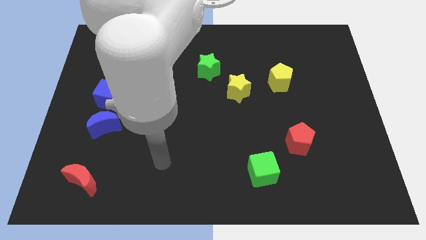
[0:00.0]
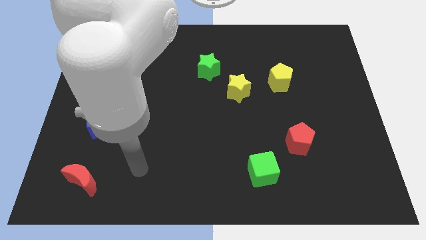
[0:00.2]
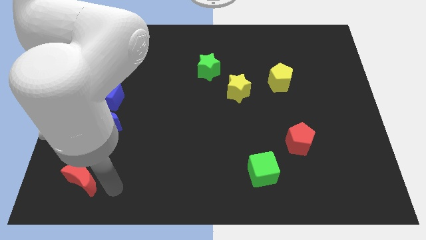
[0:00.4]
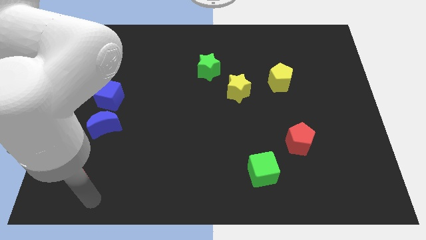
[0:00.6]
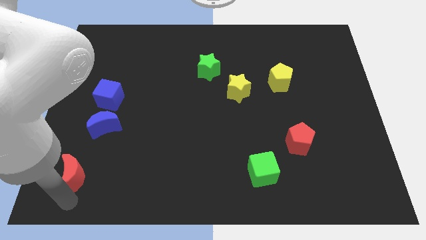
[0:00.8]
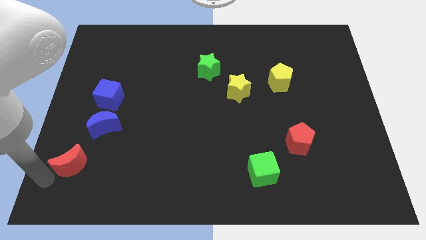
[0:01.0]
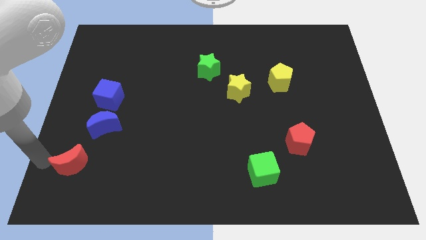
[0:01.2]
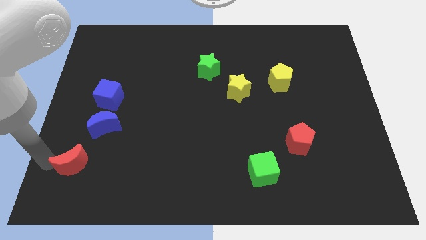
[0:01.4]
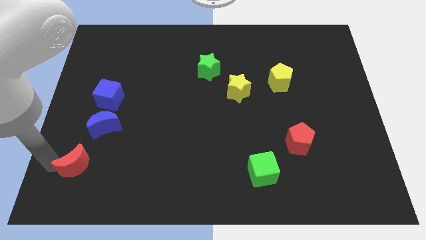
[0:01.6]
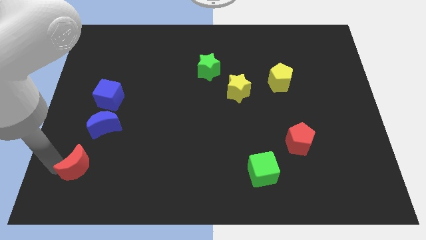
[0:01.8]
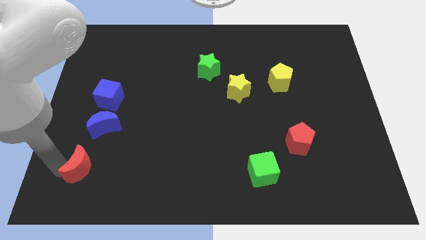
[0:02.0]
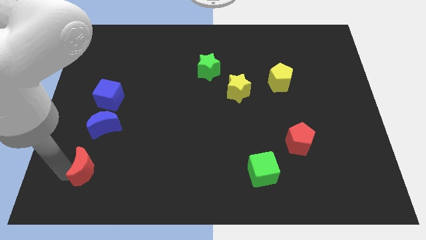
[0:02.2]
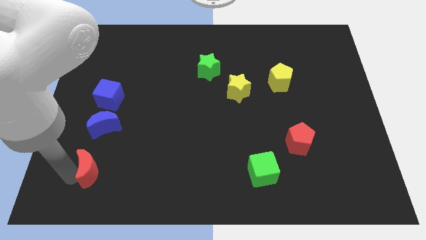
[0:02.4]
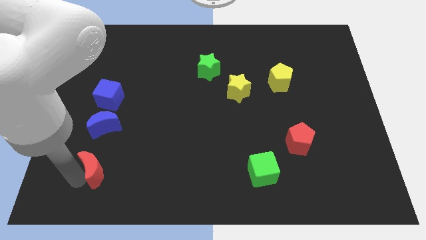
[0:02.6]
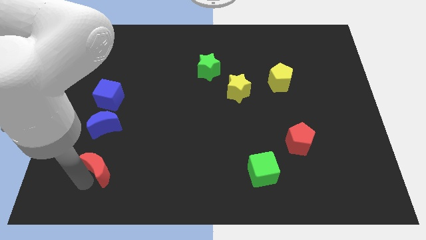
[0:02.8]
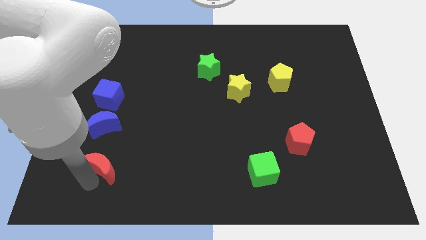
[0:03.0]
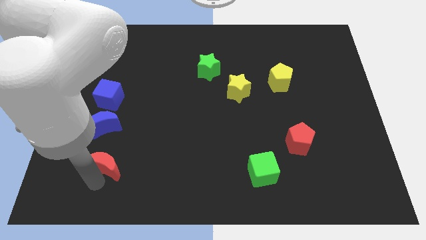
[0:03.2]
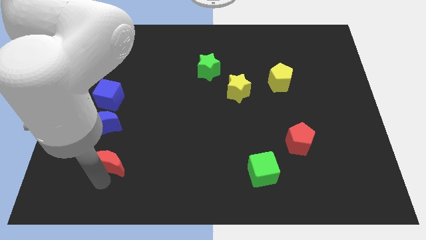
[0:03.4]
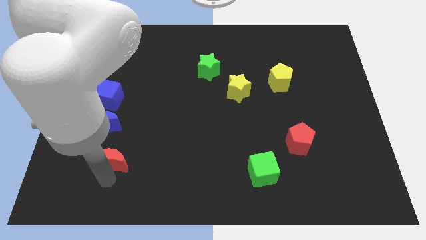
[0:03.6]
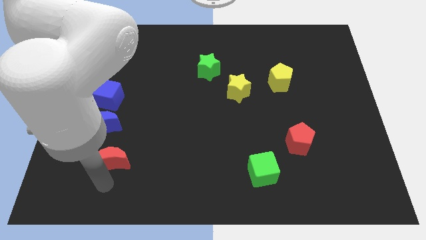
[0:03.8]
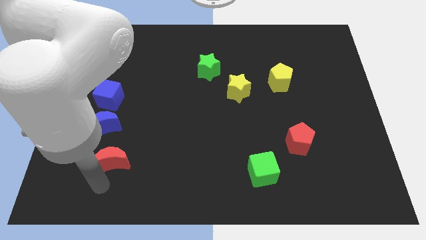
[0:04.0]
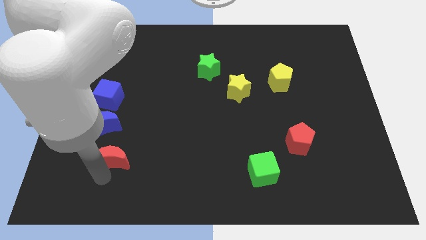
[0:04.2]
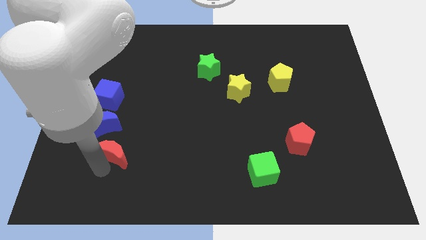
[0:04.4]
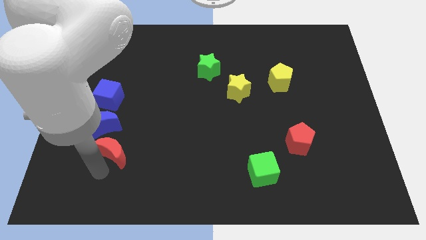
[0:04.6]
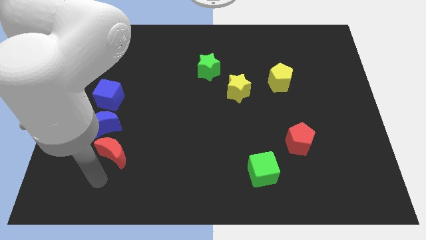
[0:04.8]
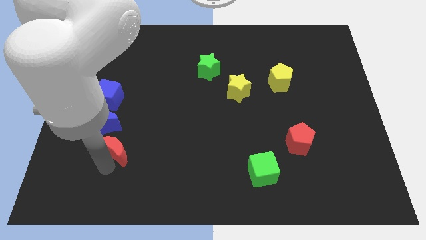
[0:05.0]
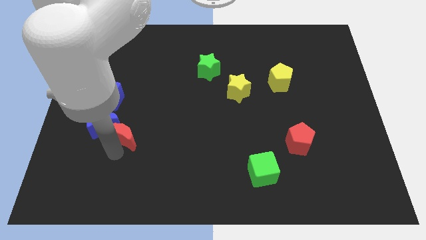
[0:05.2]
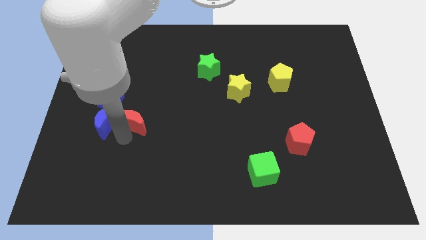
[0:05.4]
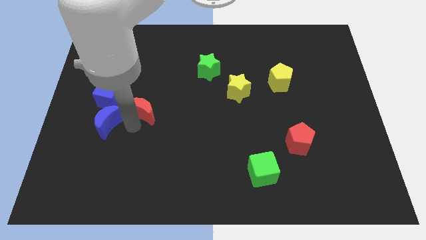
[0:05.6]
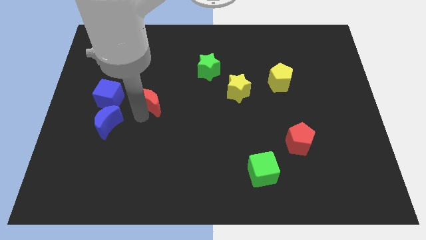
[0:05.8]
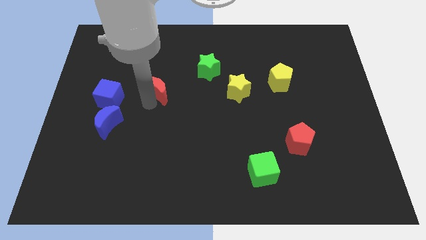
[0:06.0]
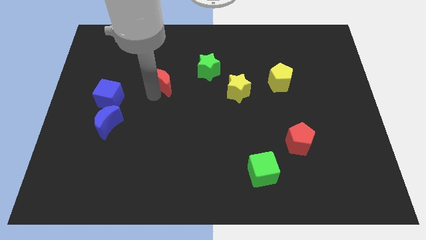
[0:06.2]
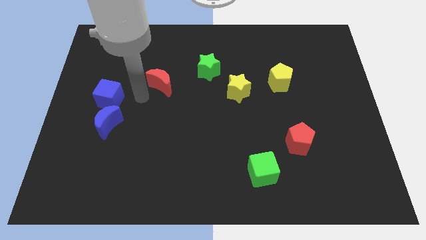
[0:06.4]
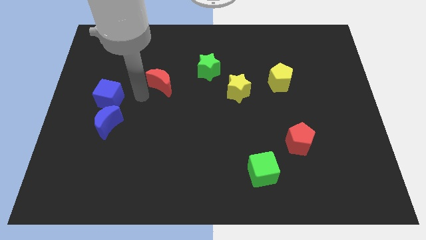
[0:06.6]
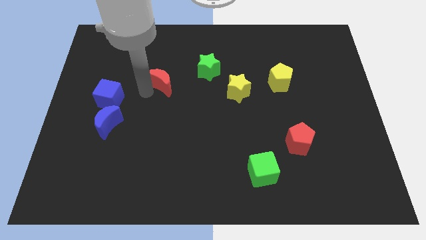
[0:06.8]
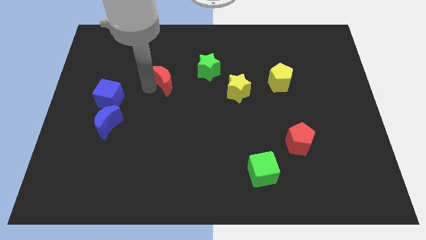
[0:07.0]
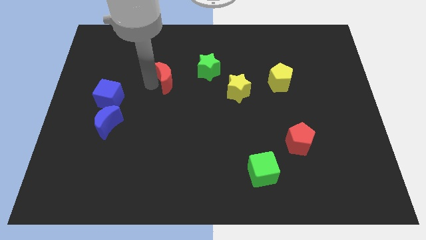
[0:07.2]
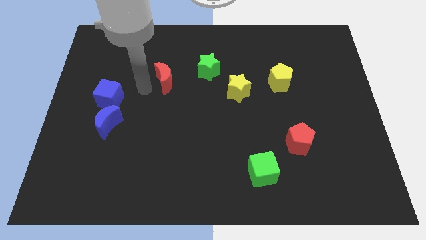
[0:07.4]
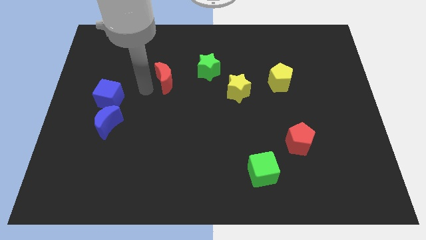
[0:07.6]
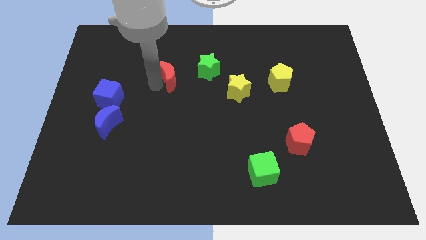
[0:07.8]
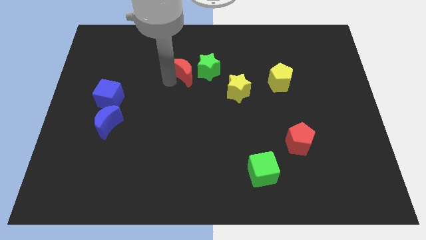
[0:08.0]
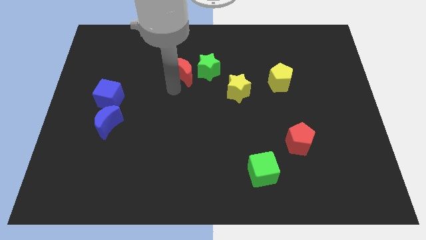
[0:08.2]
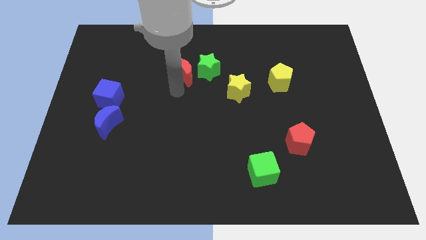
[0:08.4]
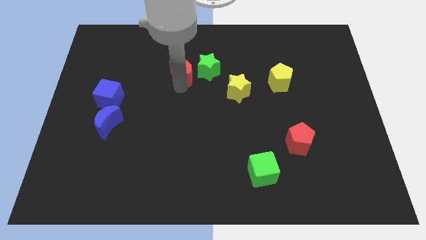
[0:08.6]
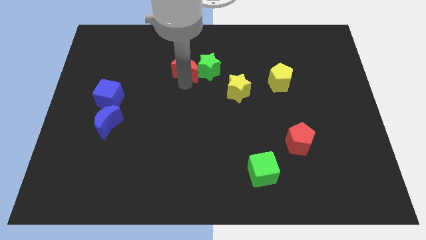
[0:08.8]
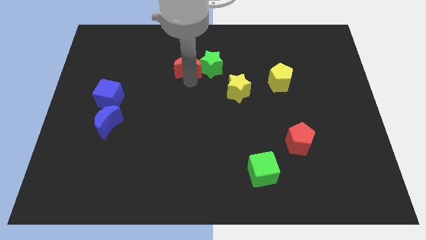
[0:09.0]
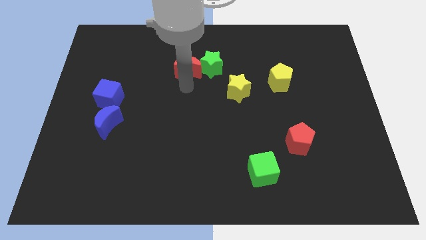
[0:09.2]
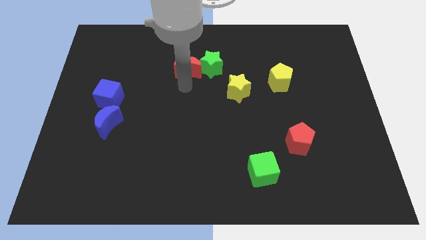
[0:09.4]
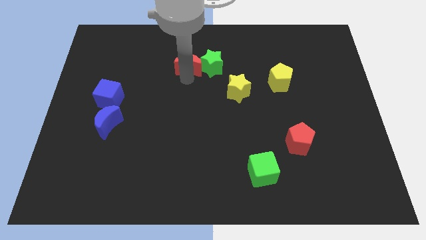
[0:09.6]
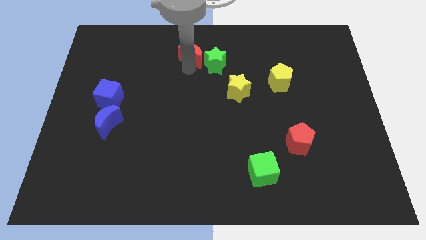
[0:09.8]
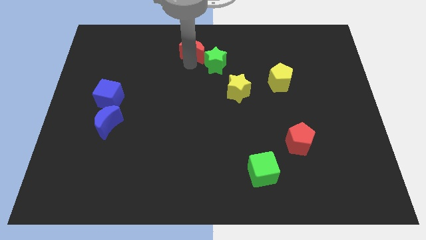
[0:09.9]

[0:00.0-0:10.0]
slide the red moon to the towards your base

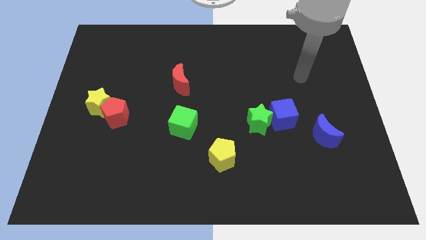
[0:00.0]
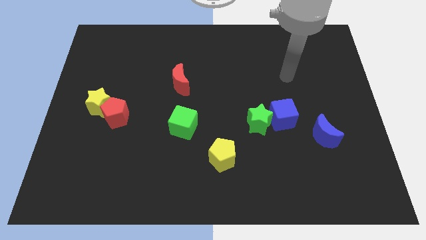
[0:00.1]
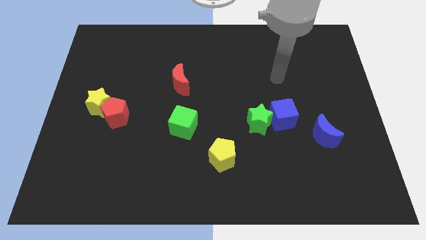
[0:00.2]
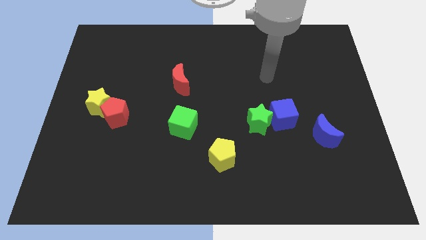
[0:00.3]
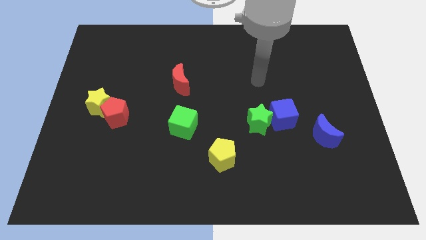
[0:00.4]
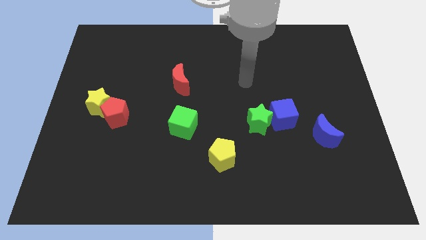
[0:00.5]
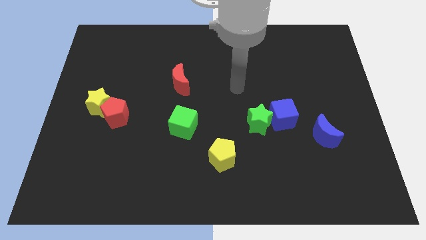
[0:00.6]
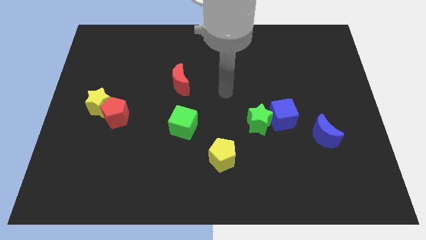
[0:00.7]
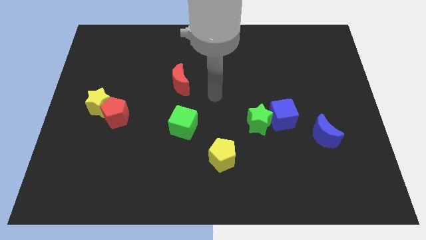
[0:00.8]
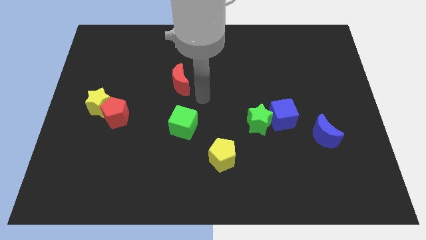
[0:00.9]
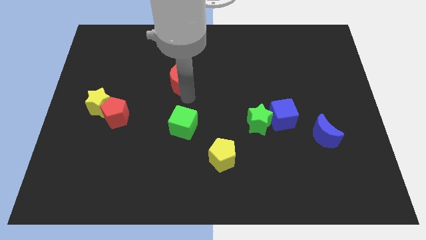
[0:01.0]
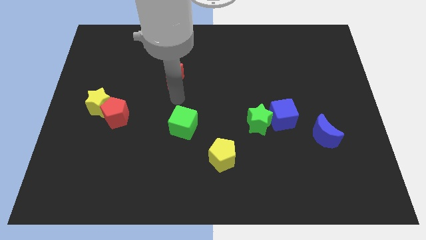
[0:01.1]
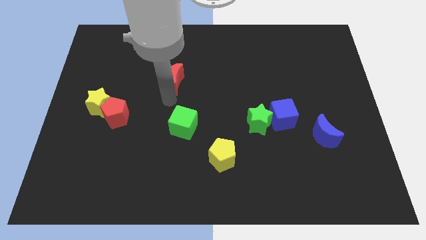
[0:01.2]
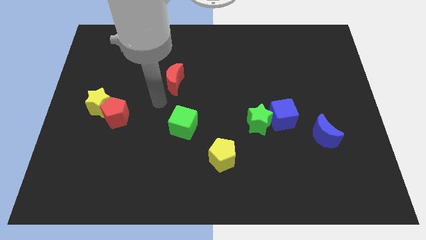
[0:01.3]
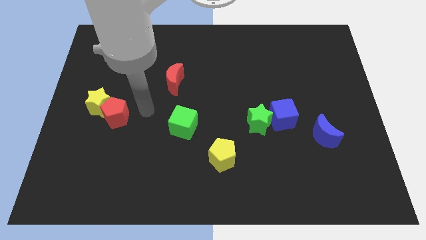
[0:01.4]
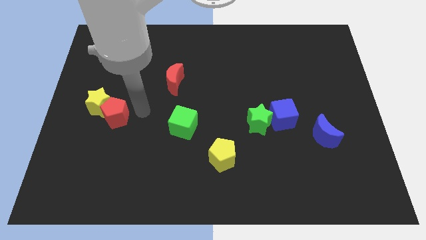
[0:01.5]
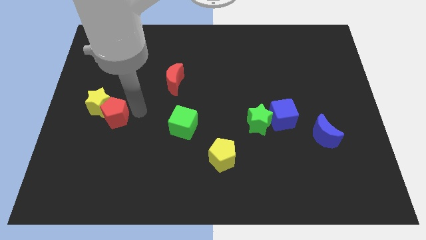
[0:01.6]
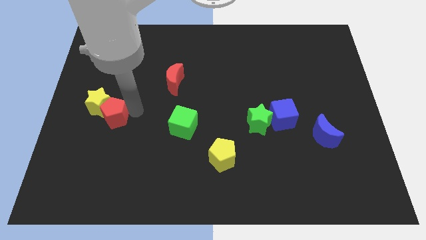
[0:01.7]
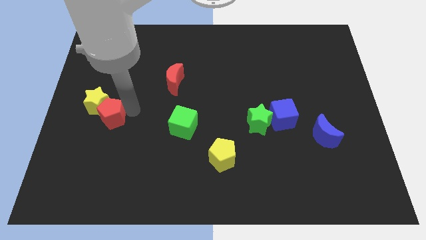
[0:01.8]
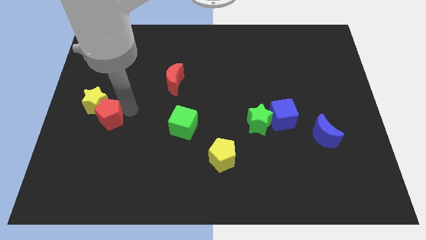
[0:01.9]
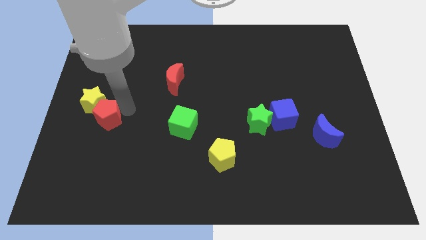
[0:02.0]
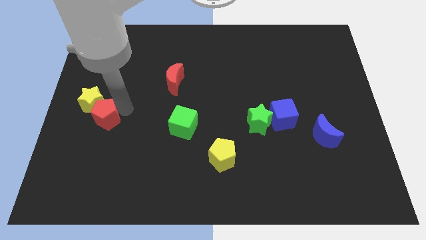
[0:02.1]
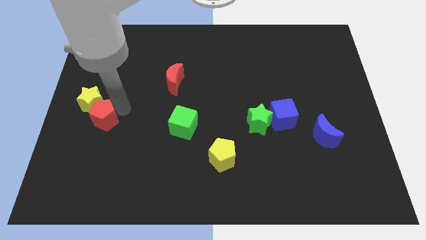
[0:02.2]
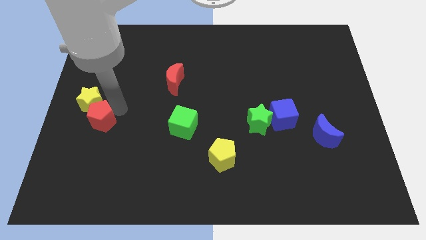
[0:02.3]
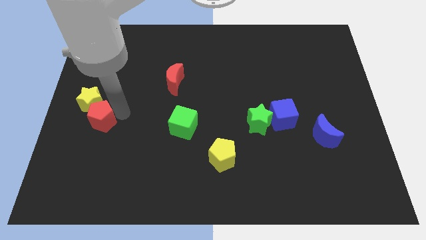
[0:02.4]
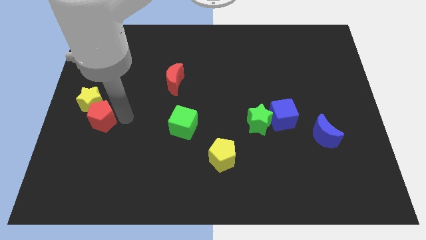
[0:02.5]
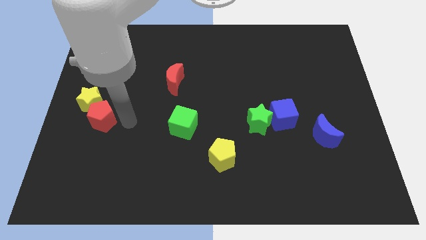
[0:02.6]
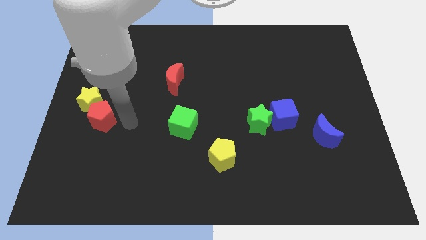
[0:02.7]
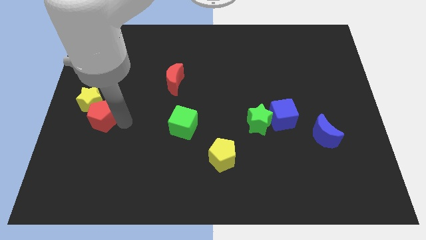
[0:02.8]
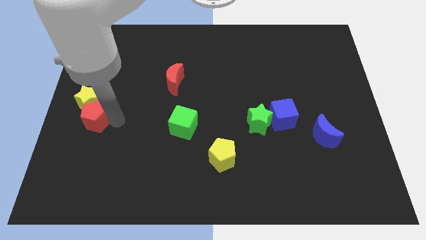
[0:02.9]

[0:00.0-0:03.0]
move the red pentagon to the center left
